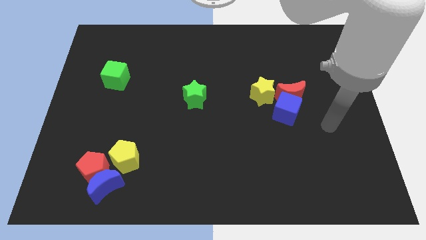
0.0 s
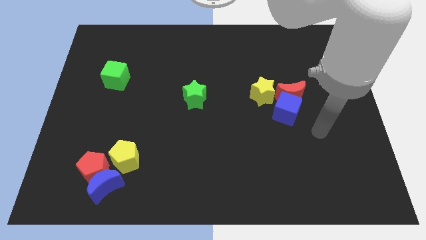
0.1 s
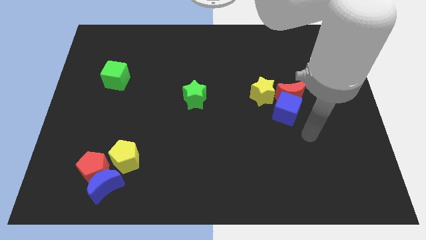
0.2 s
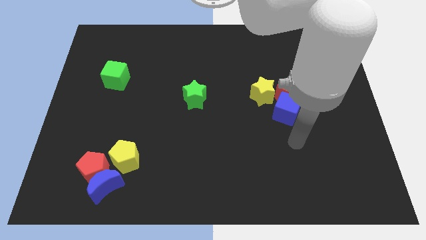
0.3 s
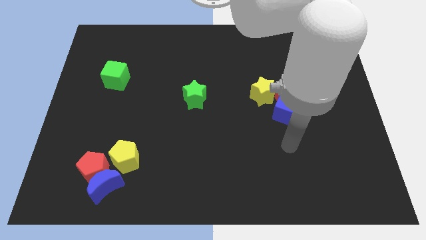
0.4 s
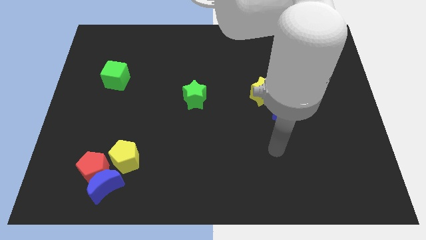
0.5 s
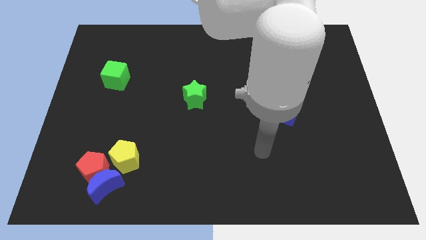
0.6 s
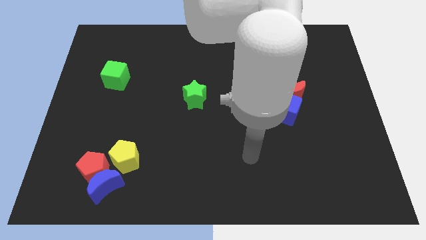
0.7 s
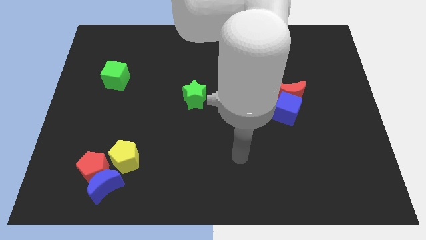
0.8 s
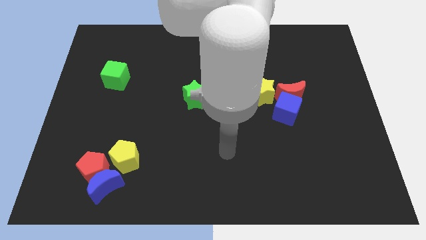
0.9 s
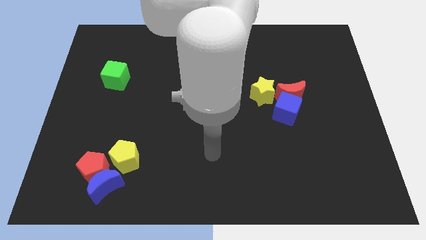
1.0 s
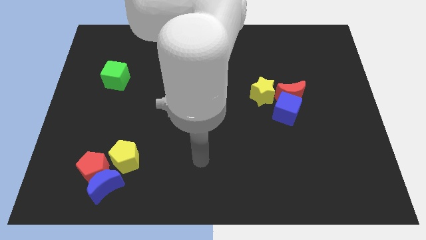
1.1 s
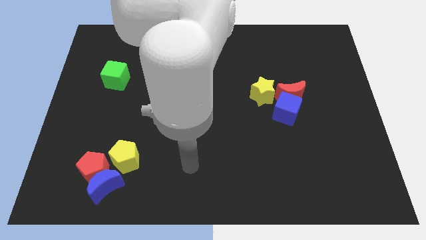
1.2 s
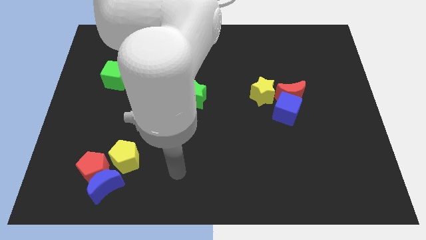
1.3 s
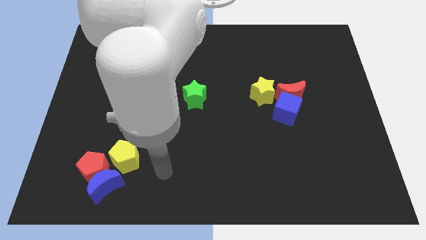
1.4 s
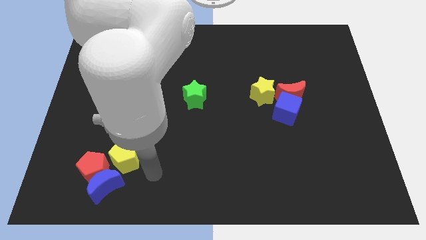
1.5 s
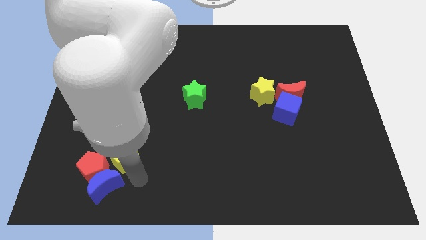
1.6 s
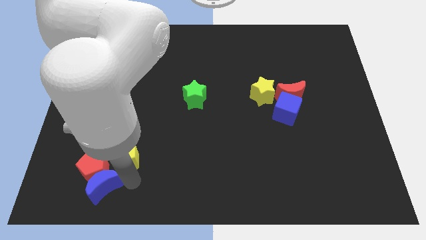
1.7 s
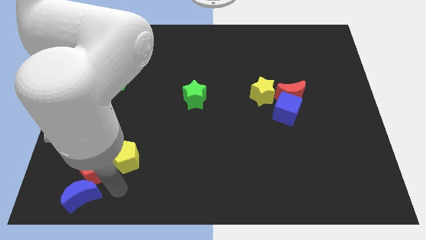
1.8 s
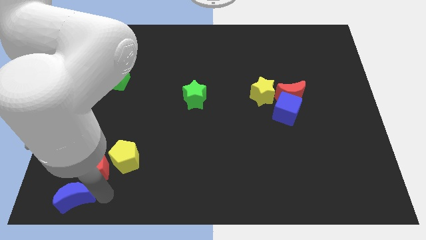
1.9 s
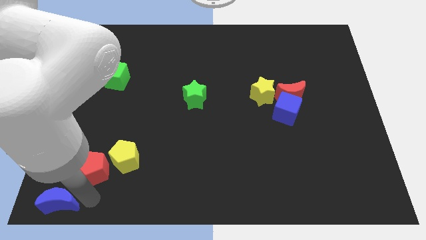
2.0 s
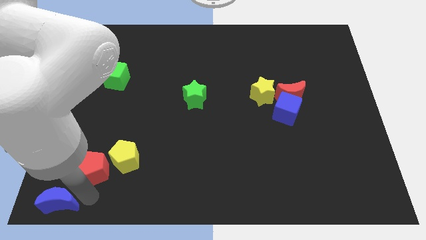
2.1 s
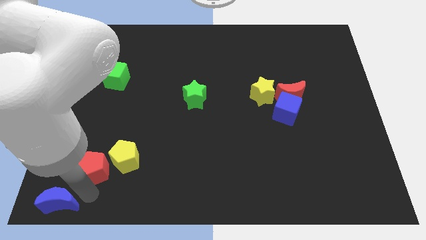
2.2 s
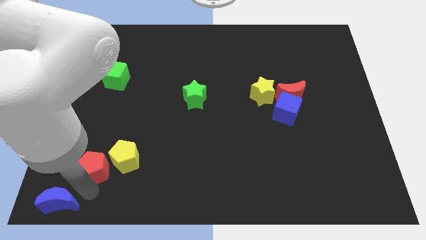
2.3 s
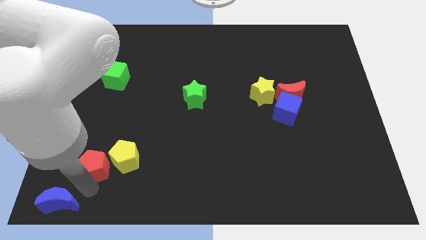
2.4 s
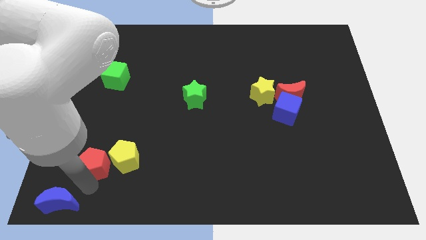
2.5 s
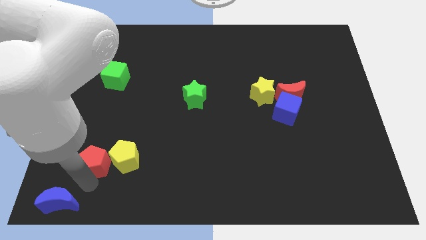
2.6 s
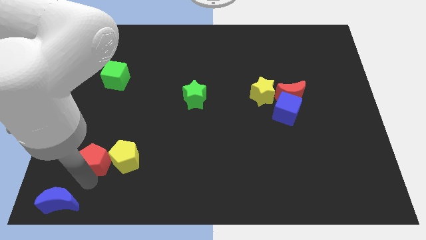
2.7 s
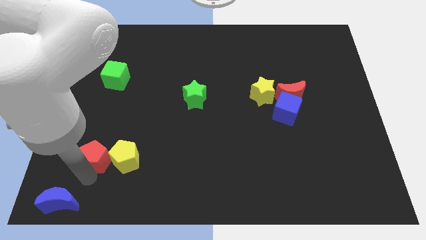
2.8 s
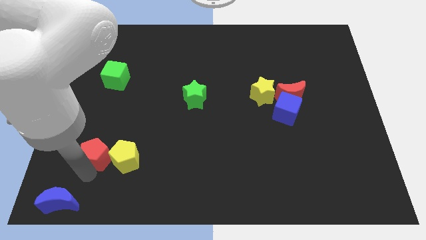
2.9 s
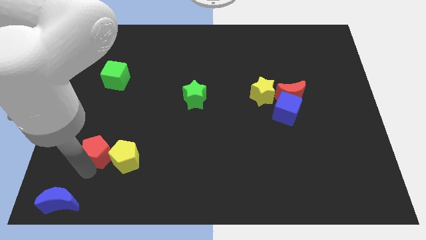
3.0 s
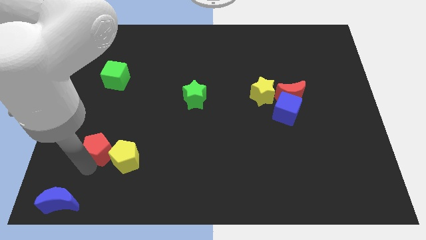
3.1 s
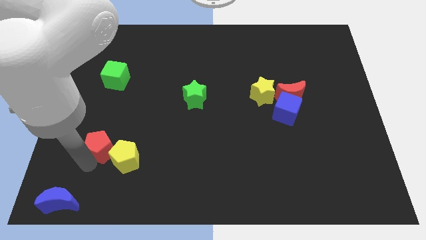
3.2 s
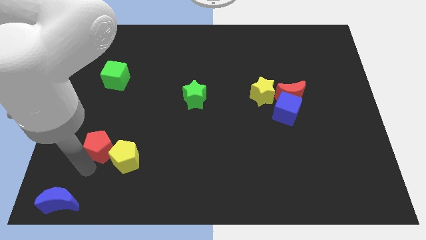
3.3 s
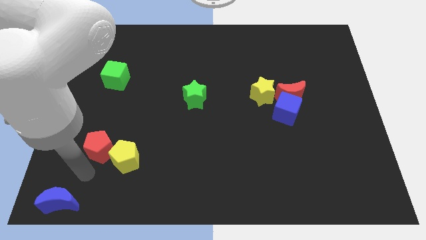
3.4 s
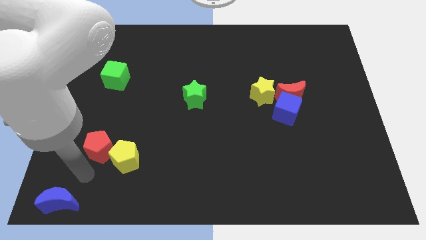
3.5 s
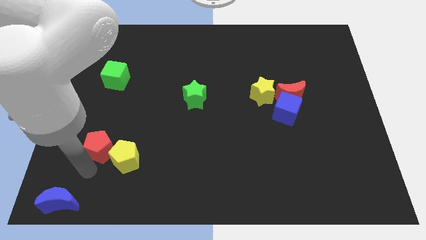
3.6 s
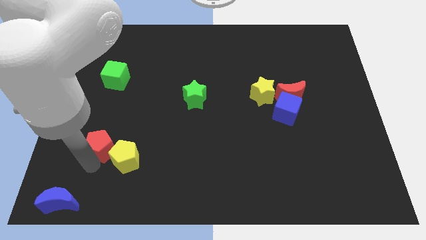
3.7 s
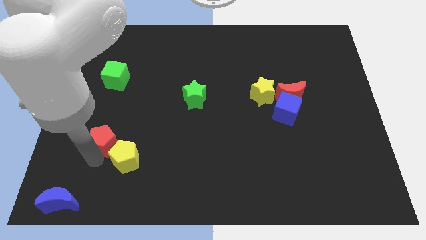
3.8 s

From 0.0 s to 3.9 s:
push the red pentagon a bit up

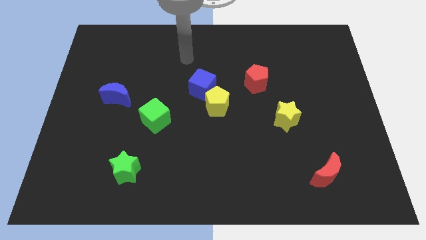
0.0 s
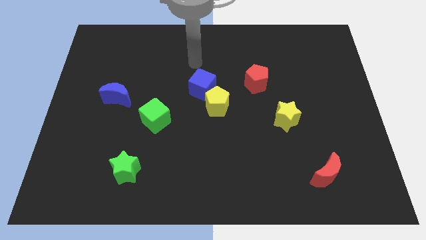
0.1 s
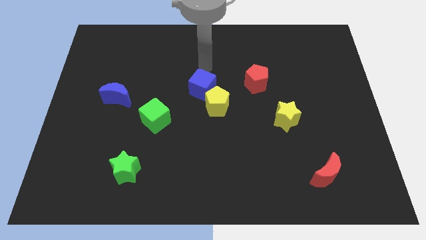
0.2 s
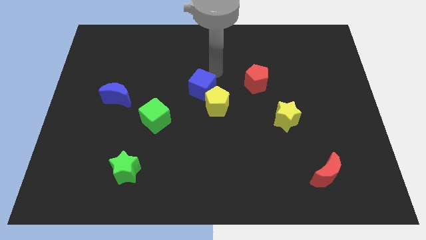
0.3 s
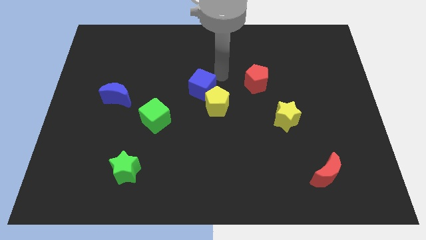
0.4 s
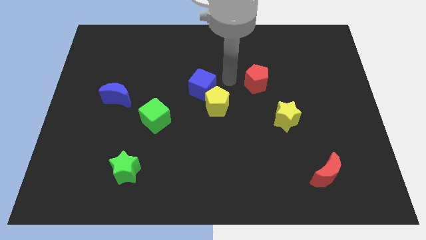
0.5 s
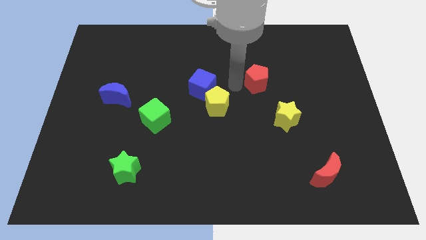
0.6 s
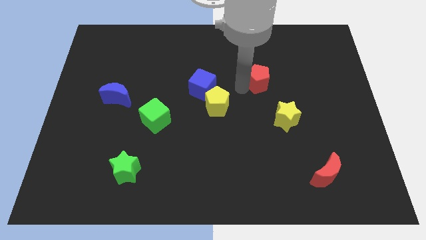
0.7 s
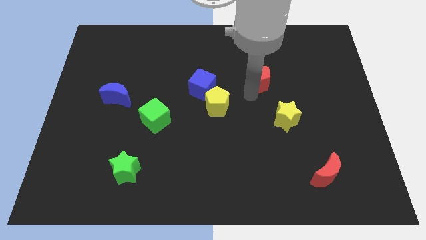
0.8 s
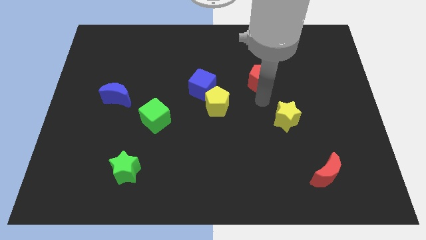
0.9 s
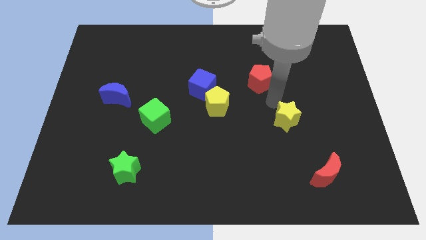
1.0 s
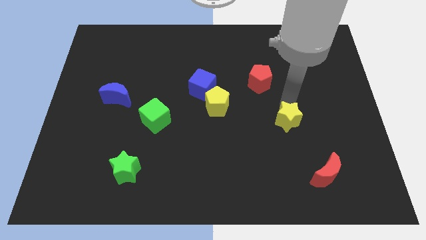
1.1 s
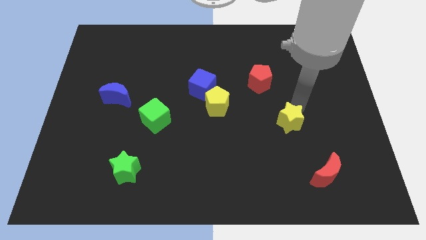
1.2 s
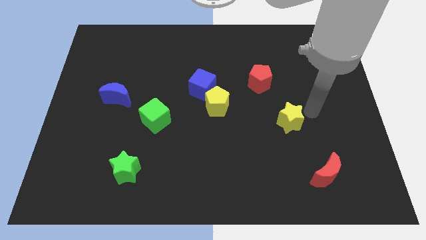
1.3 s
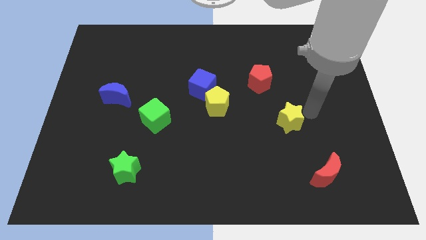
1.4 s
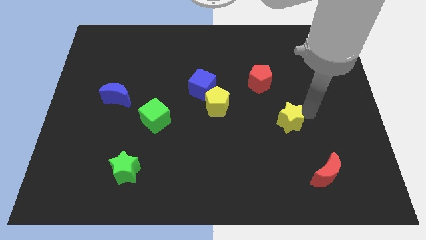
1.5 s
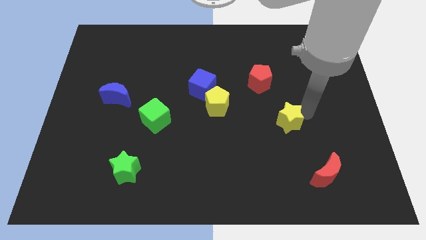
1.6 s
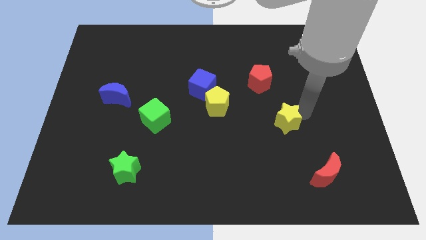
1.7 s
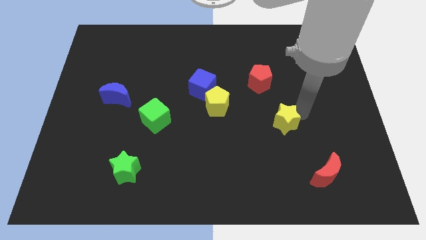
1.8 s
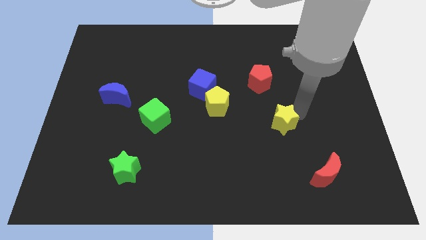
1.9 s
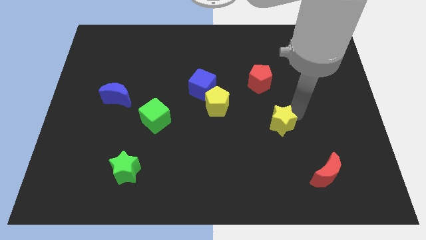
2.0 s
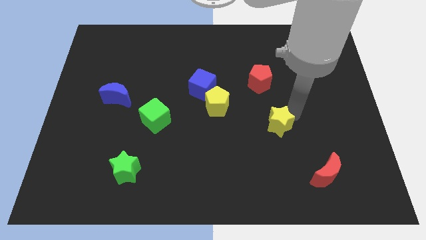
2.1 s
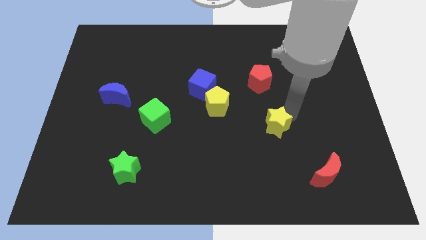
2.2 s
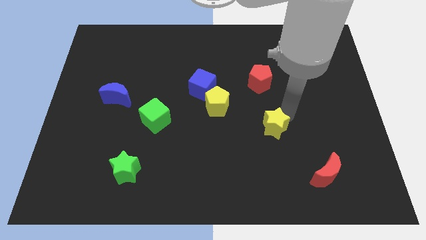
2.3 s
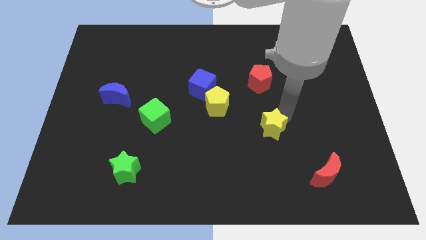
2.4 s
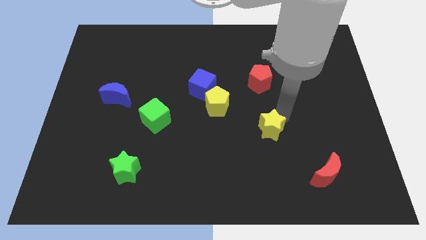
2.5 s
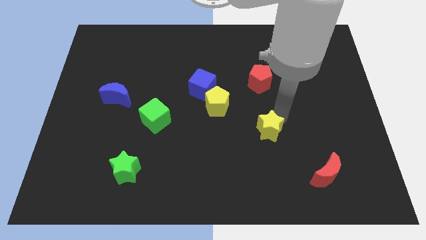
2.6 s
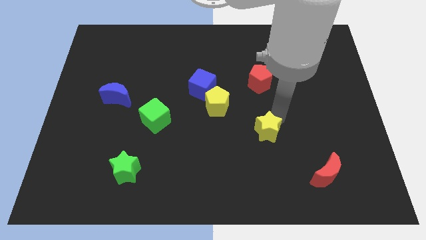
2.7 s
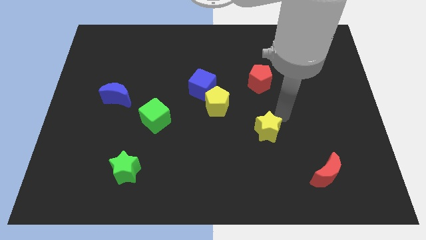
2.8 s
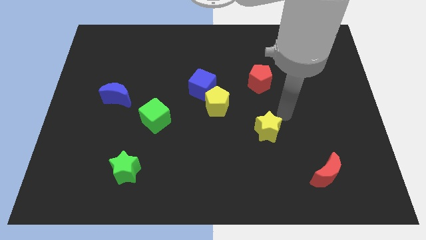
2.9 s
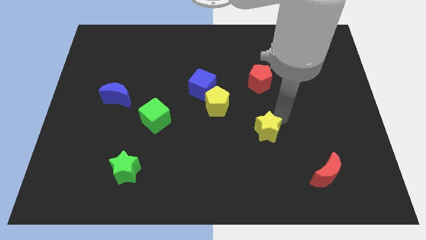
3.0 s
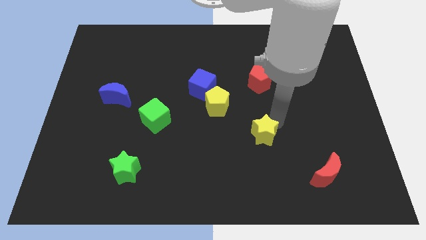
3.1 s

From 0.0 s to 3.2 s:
slightly slide the yellow star down and left

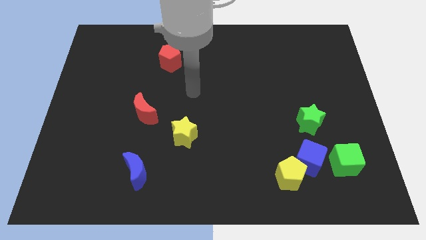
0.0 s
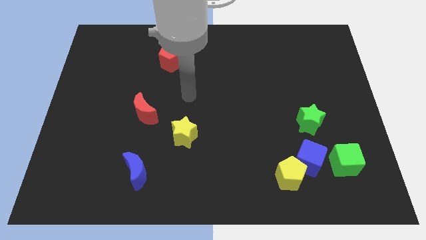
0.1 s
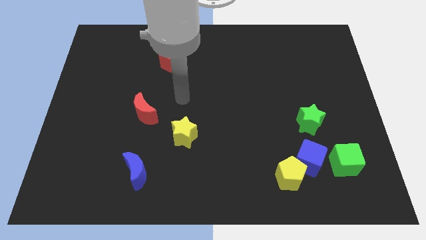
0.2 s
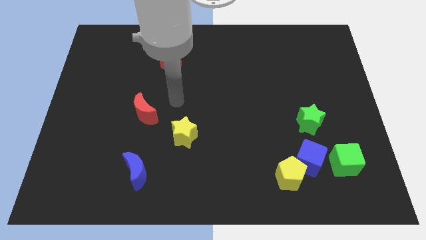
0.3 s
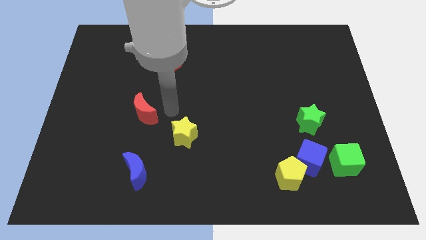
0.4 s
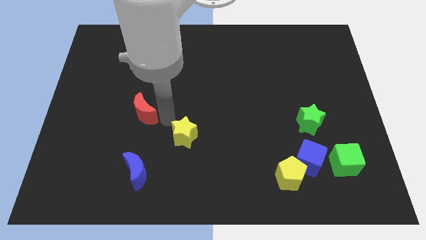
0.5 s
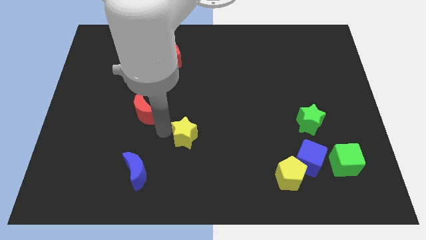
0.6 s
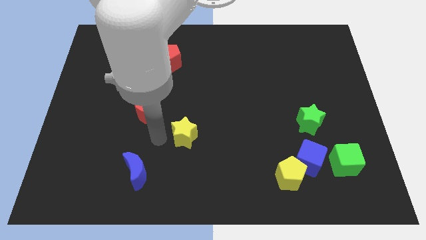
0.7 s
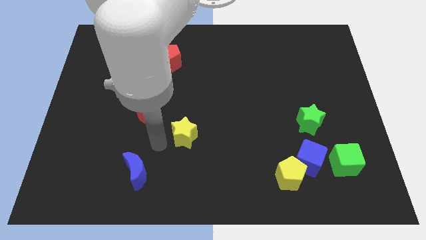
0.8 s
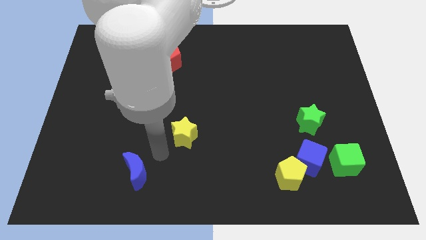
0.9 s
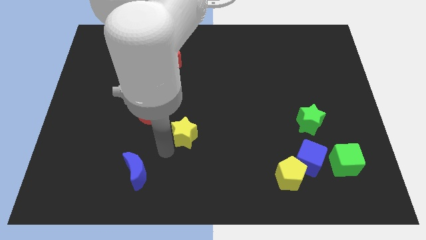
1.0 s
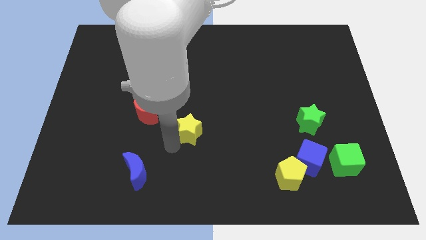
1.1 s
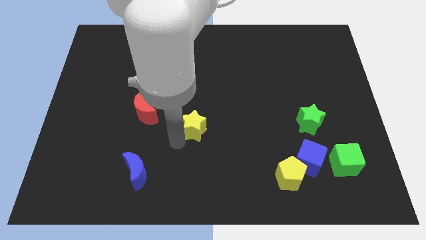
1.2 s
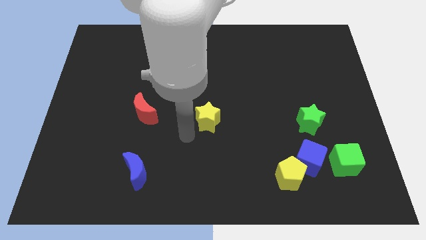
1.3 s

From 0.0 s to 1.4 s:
move the yellow star diagonally up and right a little bit
